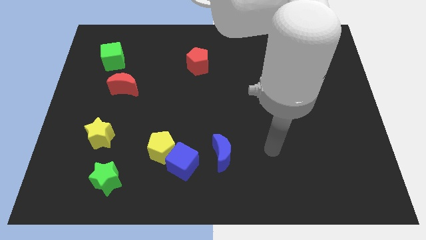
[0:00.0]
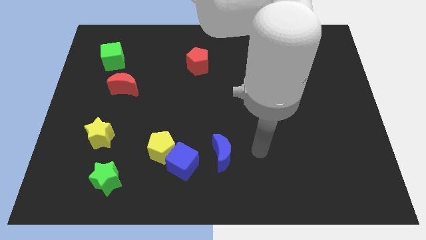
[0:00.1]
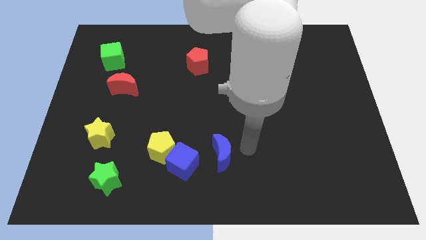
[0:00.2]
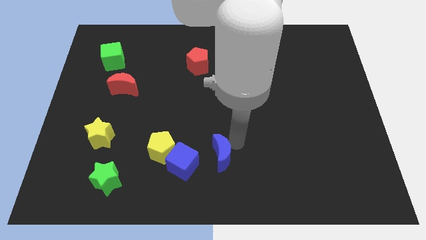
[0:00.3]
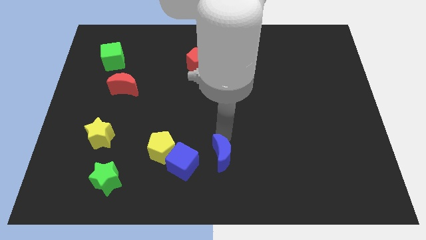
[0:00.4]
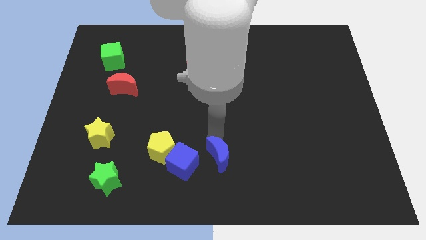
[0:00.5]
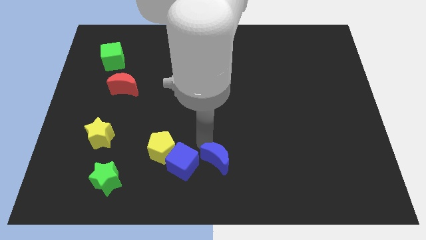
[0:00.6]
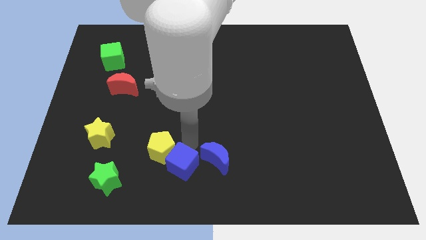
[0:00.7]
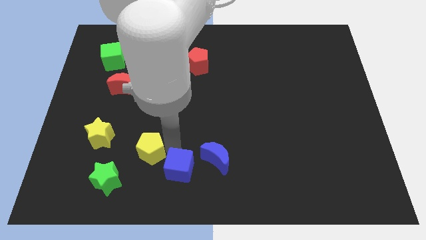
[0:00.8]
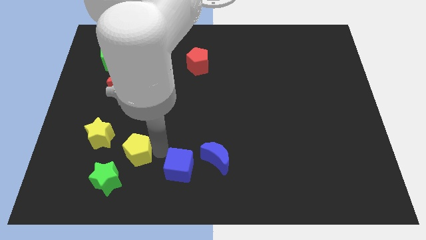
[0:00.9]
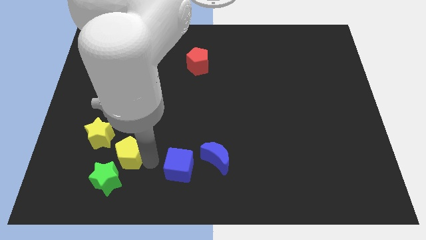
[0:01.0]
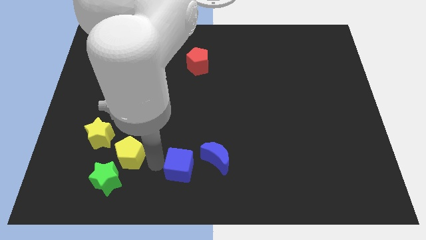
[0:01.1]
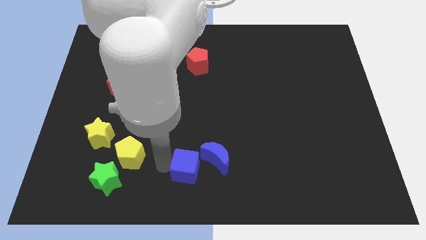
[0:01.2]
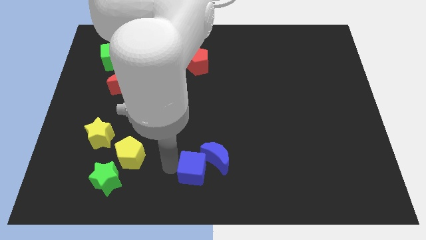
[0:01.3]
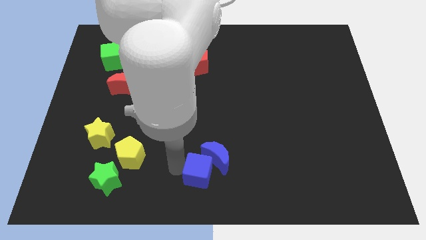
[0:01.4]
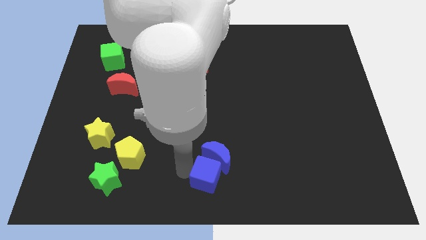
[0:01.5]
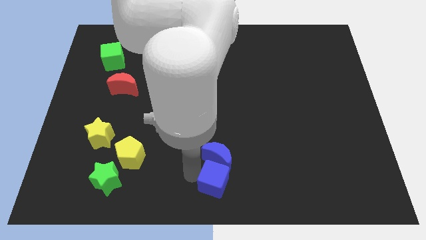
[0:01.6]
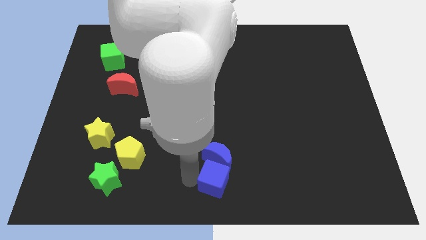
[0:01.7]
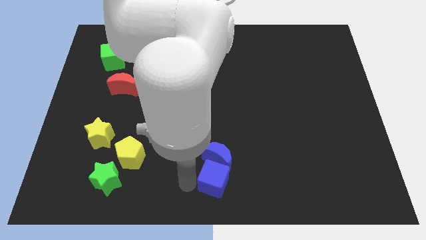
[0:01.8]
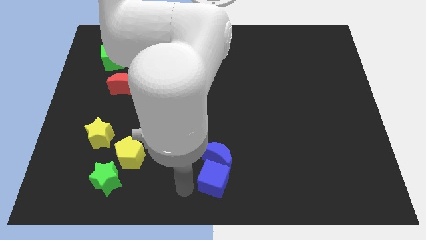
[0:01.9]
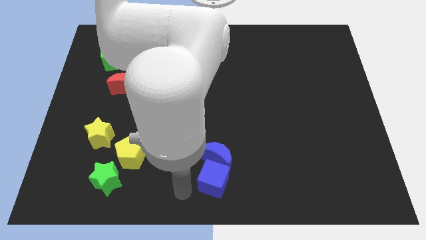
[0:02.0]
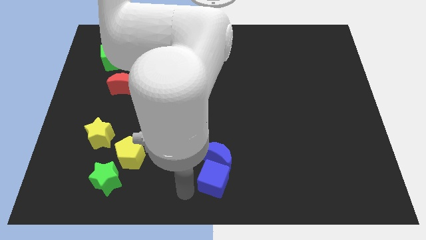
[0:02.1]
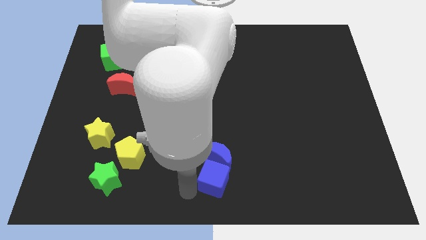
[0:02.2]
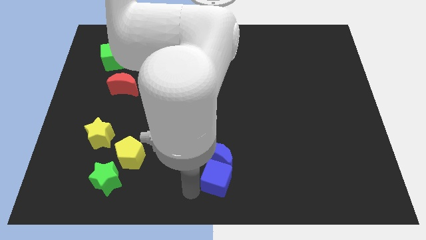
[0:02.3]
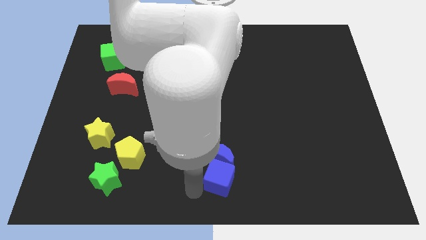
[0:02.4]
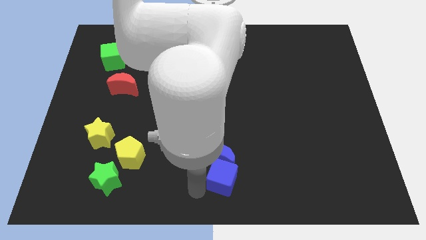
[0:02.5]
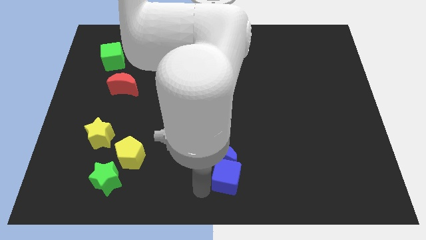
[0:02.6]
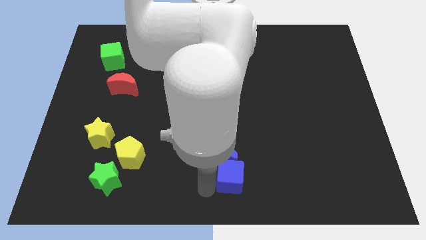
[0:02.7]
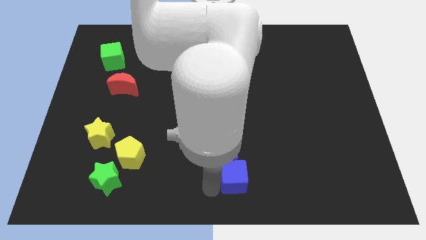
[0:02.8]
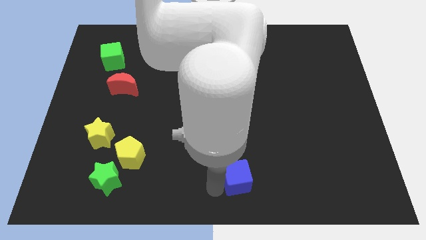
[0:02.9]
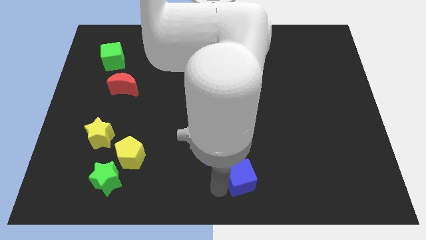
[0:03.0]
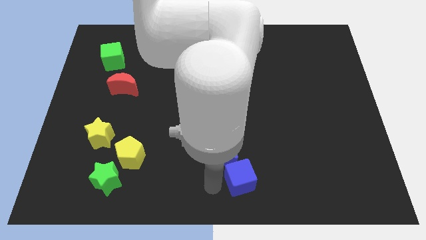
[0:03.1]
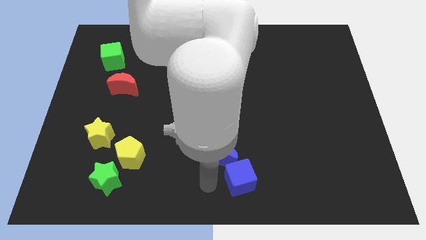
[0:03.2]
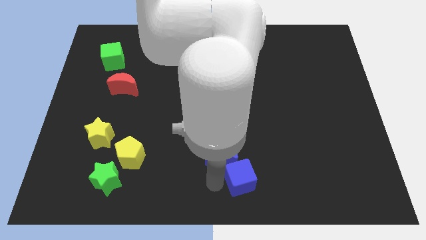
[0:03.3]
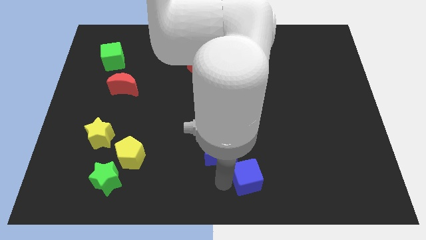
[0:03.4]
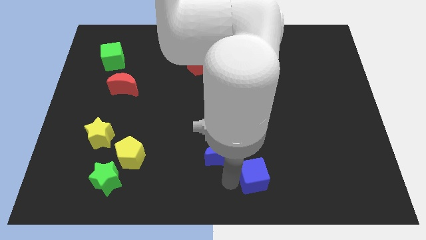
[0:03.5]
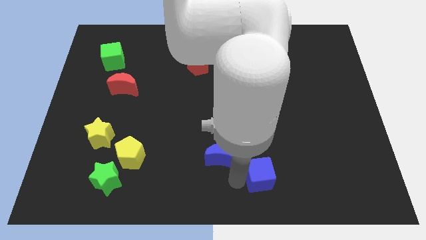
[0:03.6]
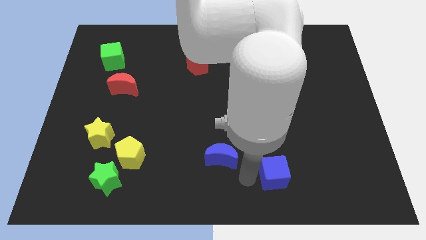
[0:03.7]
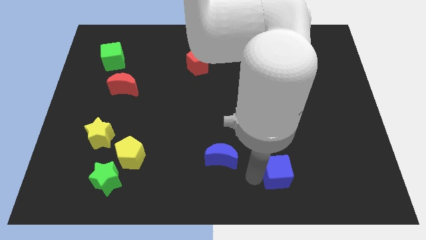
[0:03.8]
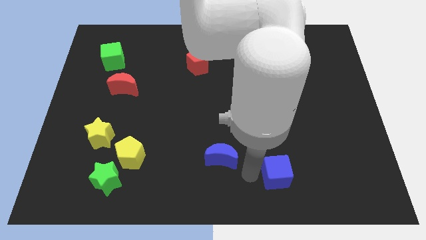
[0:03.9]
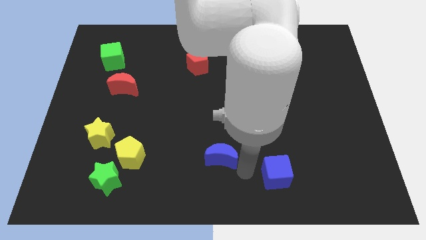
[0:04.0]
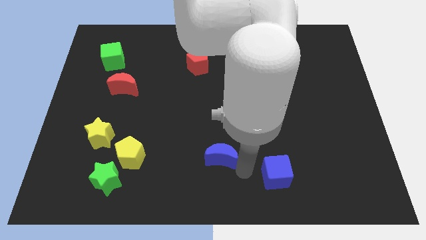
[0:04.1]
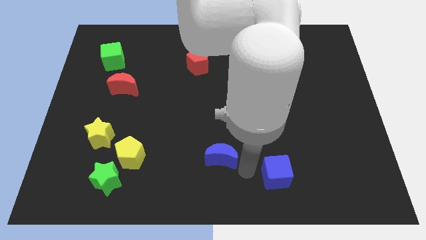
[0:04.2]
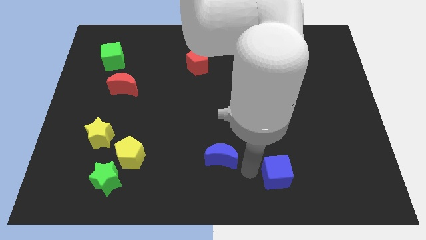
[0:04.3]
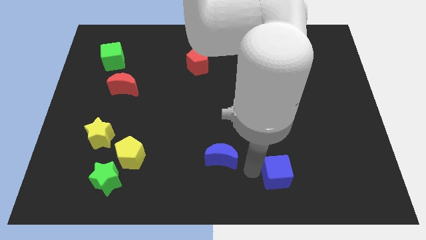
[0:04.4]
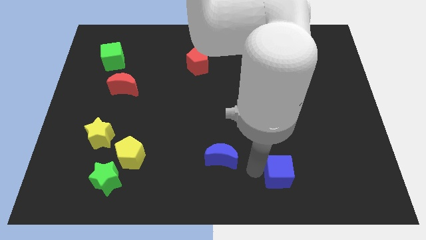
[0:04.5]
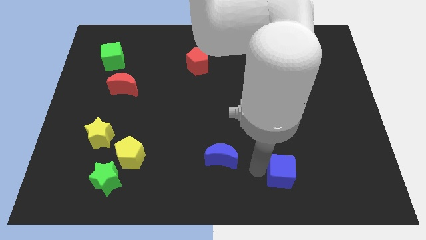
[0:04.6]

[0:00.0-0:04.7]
slide the blue cube right

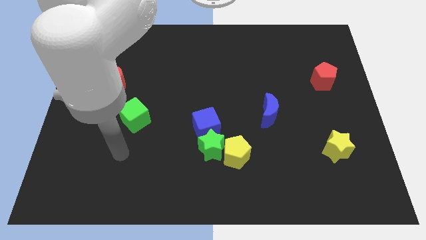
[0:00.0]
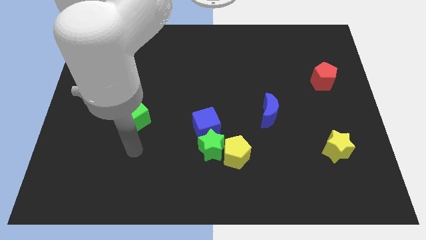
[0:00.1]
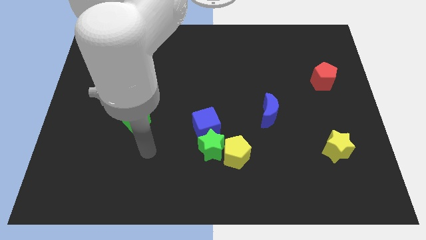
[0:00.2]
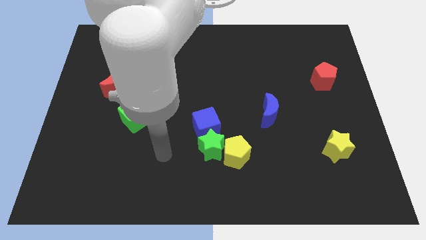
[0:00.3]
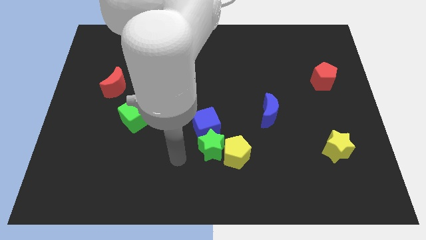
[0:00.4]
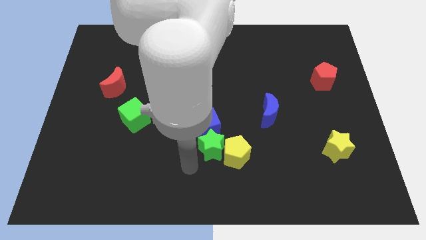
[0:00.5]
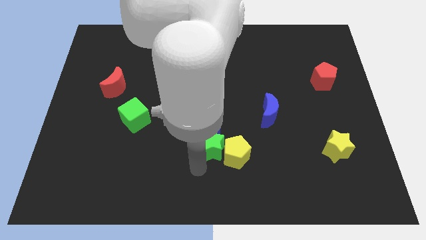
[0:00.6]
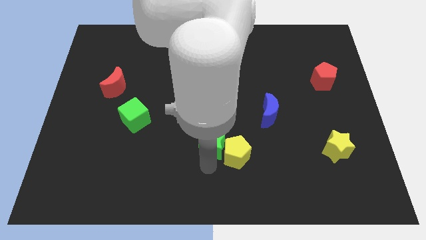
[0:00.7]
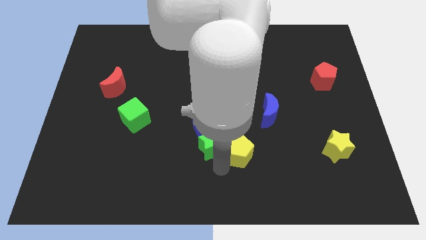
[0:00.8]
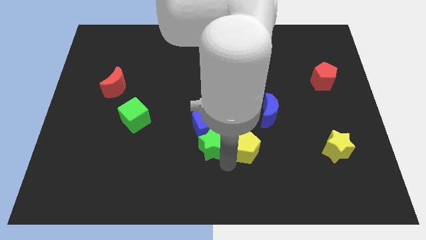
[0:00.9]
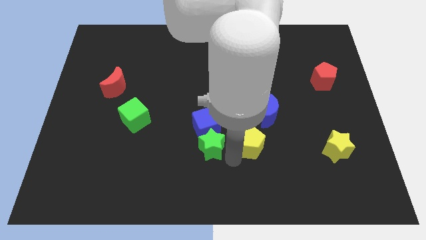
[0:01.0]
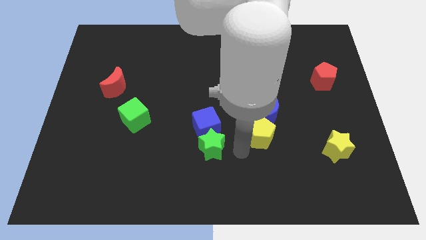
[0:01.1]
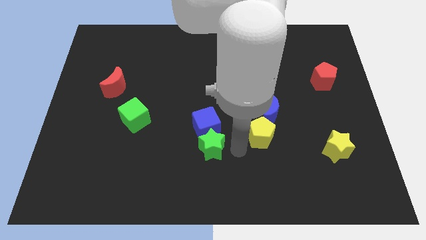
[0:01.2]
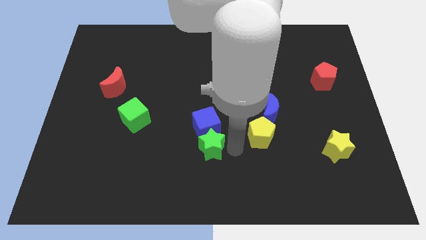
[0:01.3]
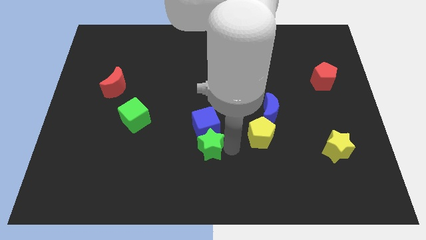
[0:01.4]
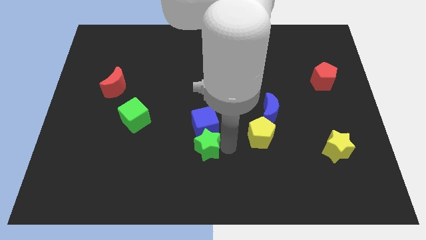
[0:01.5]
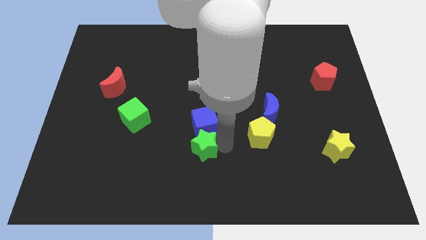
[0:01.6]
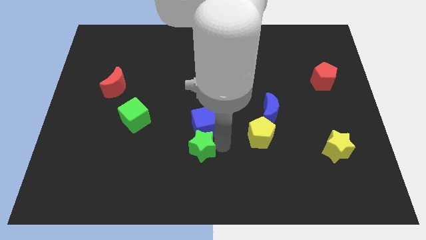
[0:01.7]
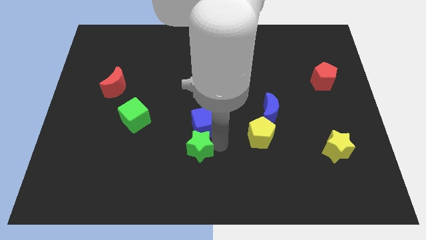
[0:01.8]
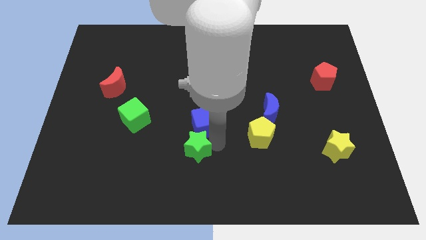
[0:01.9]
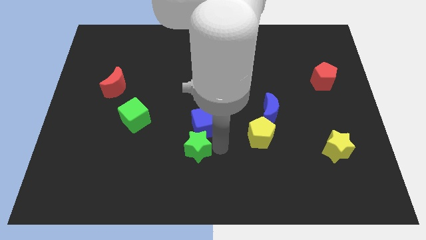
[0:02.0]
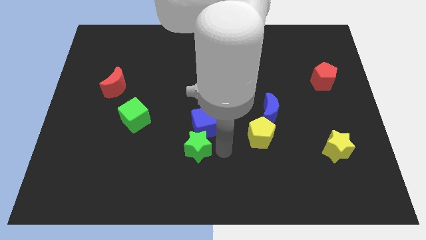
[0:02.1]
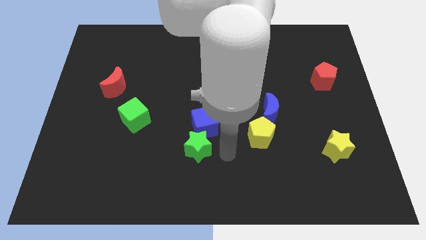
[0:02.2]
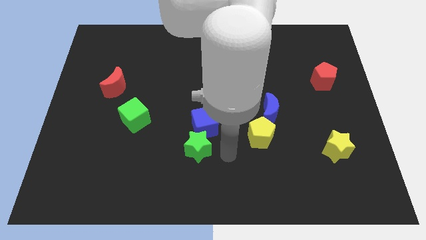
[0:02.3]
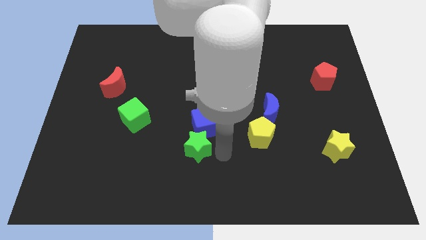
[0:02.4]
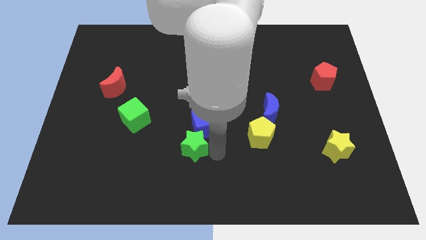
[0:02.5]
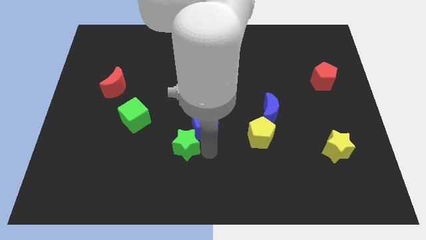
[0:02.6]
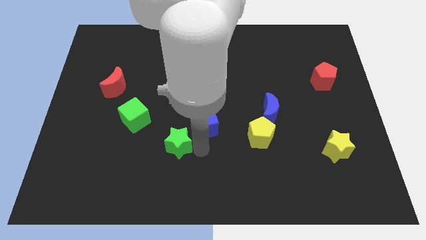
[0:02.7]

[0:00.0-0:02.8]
push the green star a little bit to the left

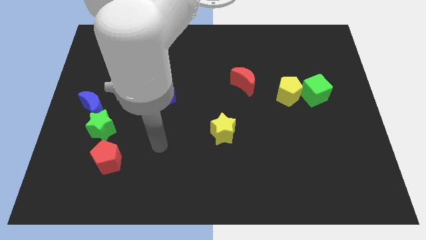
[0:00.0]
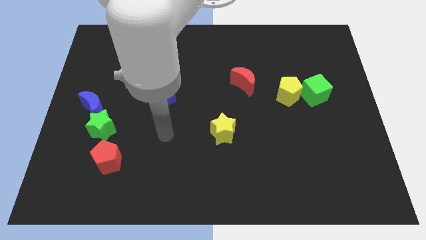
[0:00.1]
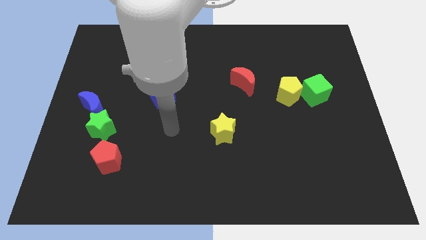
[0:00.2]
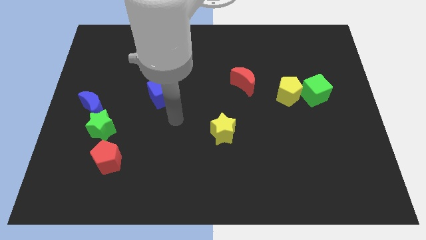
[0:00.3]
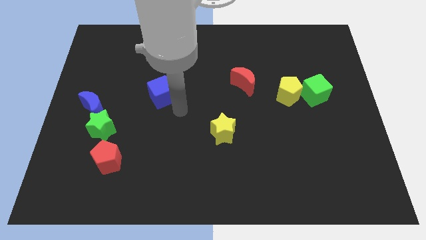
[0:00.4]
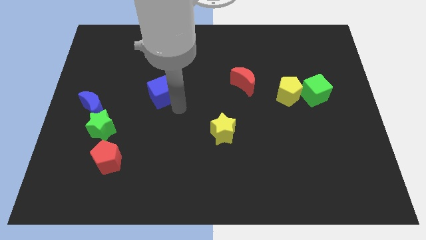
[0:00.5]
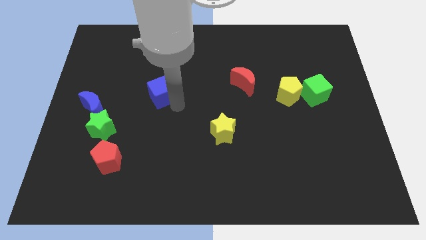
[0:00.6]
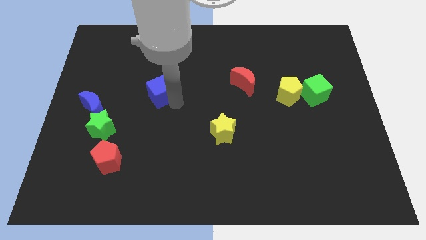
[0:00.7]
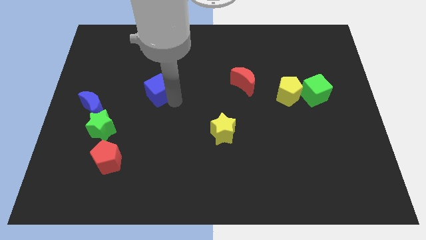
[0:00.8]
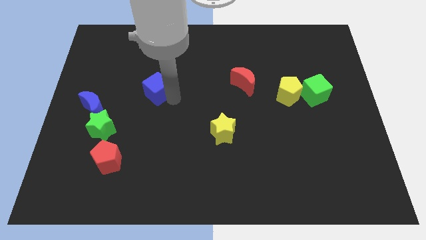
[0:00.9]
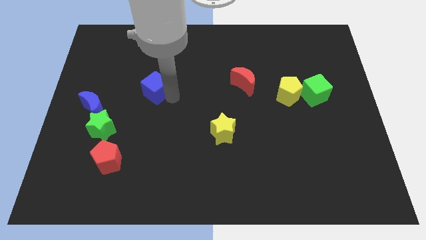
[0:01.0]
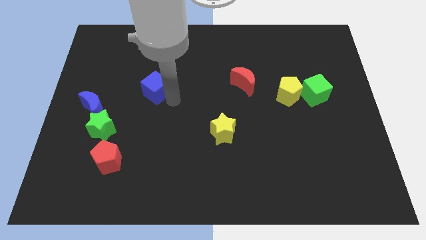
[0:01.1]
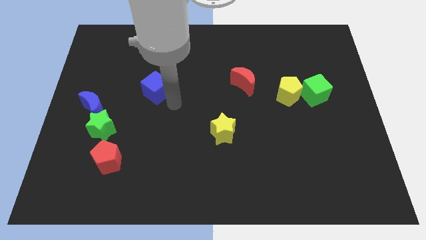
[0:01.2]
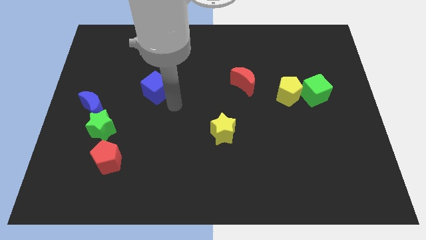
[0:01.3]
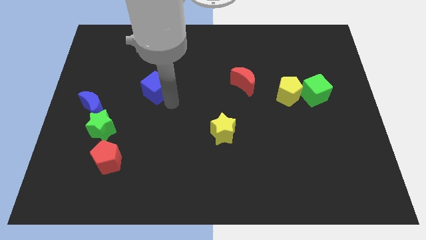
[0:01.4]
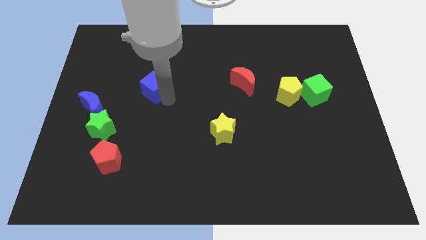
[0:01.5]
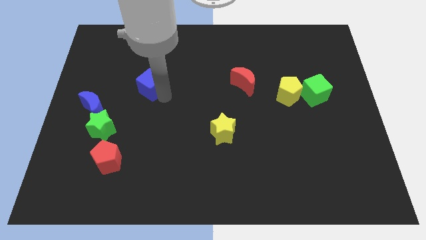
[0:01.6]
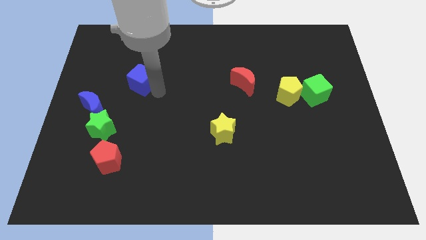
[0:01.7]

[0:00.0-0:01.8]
slide the blue cube upwards and then to the left a little bit
